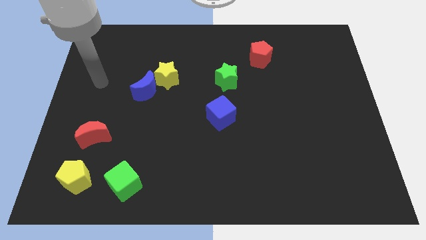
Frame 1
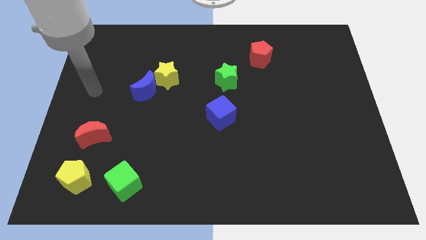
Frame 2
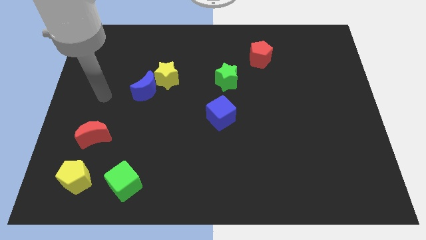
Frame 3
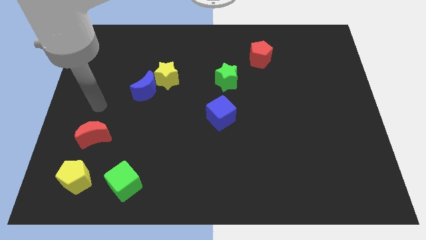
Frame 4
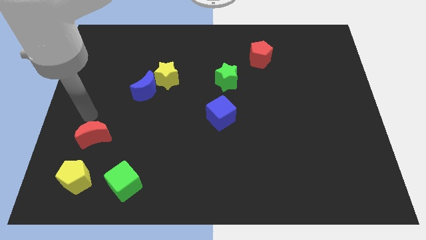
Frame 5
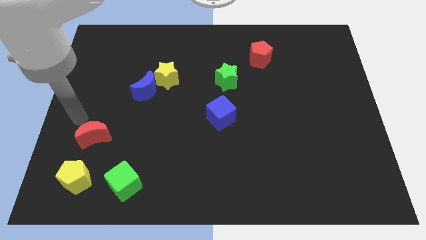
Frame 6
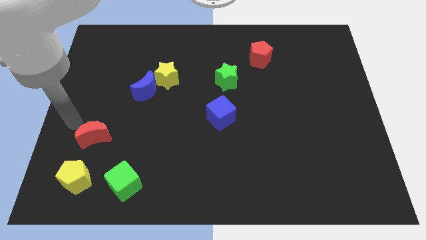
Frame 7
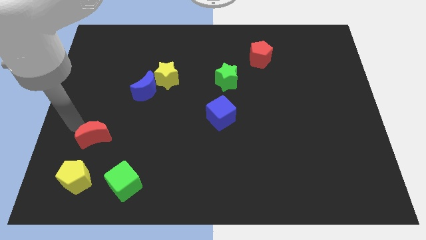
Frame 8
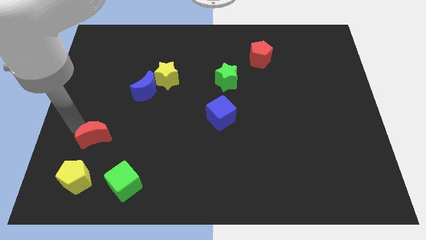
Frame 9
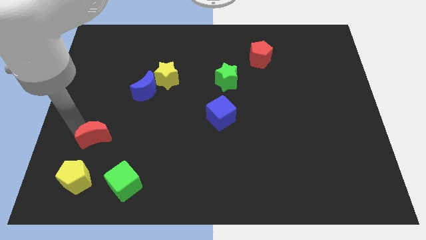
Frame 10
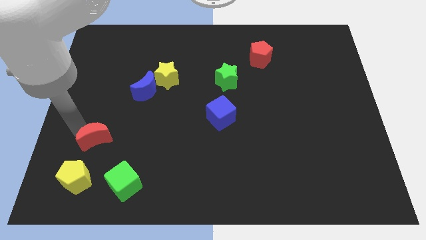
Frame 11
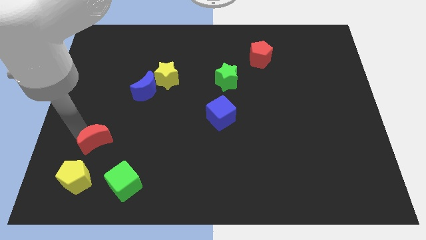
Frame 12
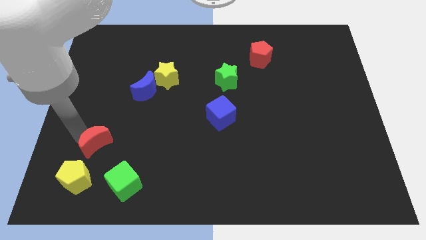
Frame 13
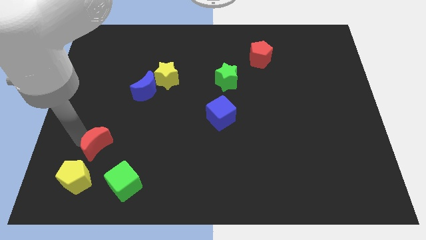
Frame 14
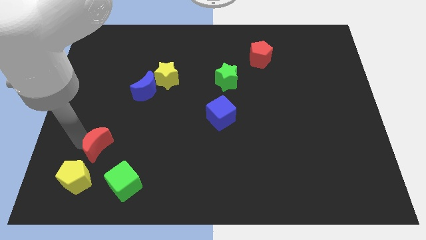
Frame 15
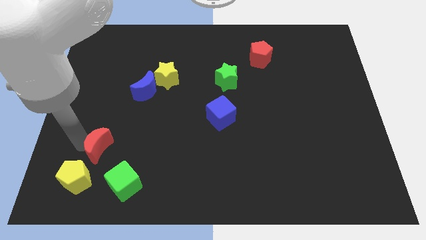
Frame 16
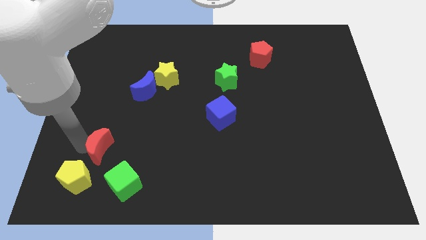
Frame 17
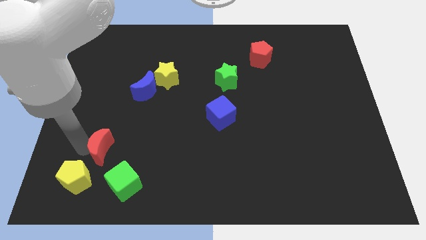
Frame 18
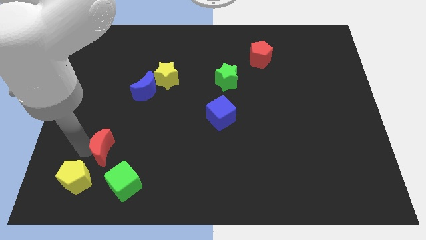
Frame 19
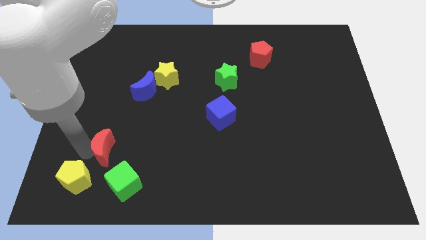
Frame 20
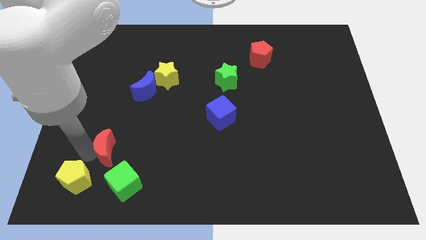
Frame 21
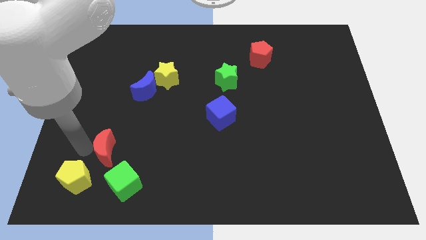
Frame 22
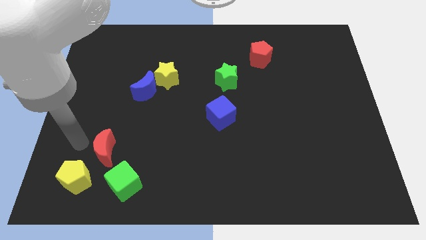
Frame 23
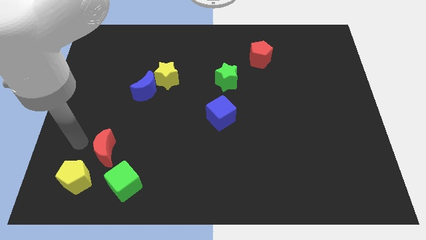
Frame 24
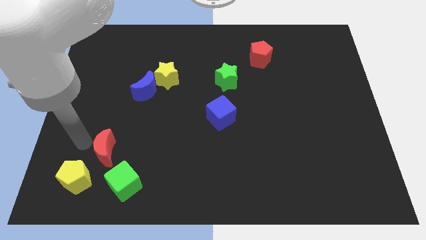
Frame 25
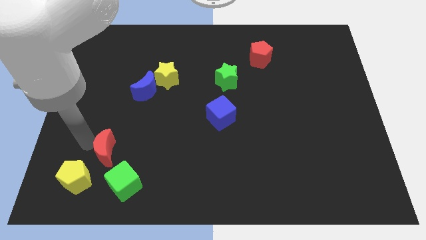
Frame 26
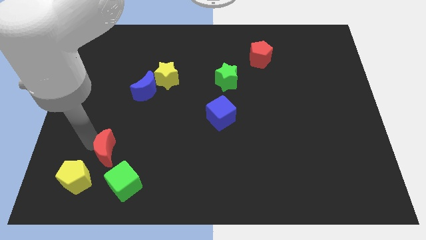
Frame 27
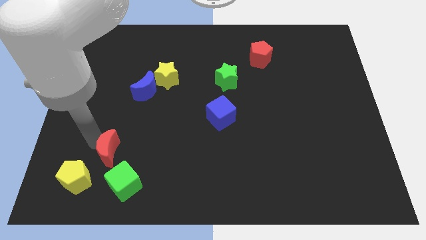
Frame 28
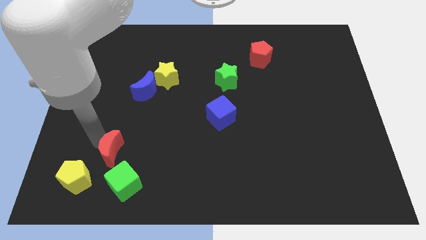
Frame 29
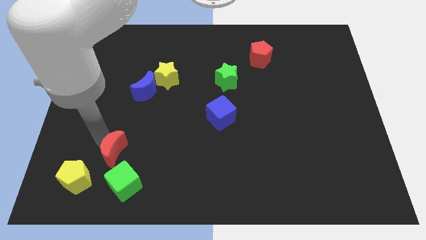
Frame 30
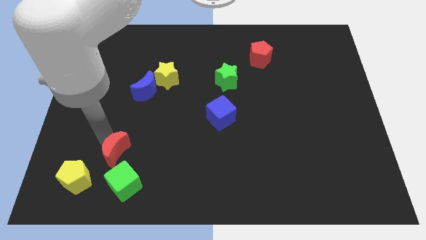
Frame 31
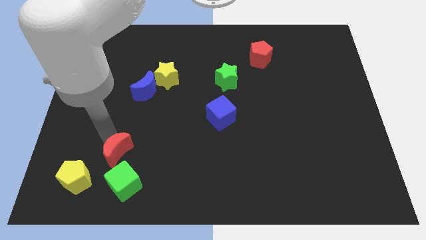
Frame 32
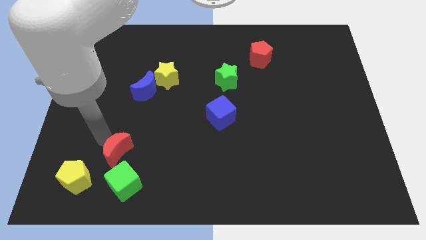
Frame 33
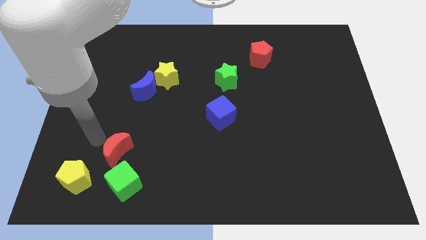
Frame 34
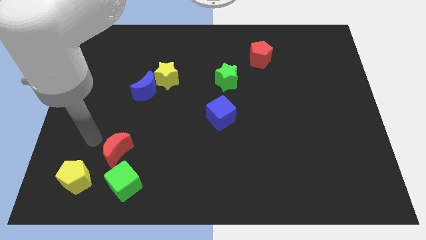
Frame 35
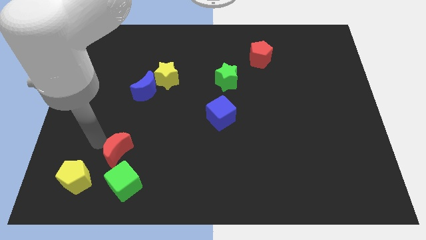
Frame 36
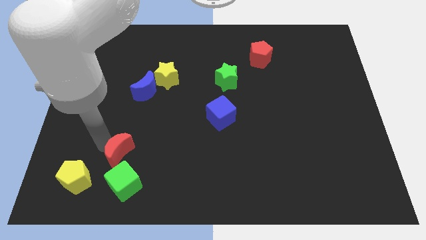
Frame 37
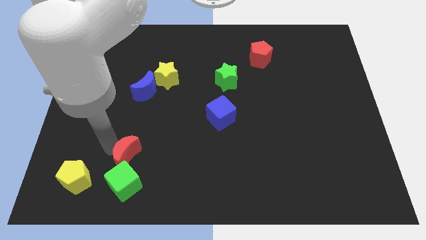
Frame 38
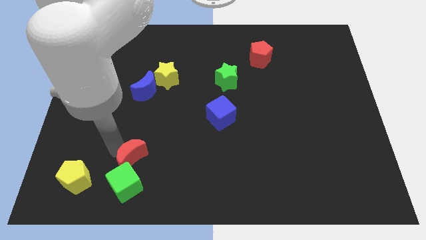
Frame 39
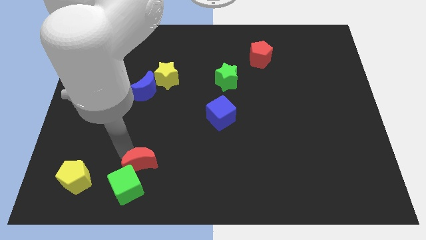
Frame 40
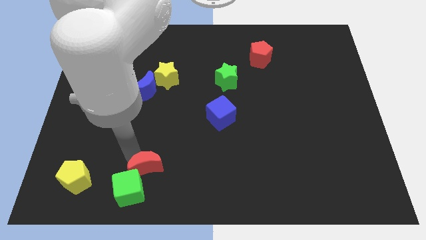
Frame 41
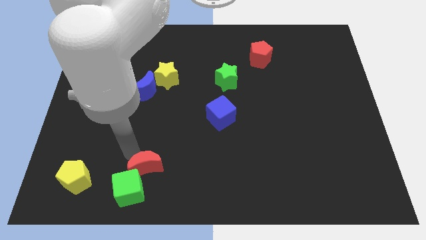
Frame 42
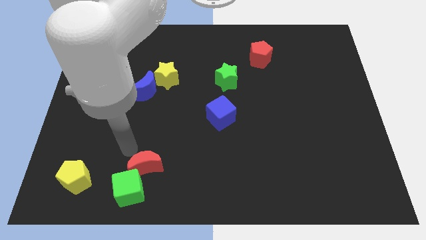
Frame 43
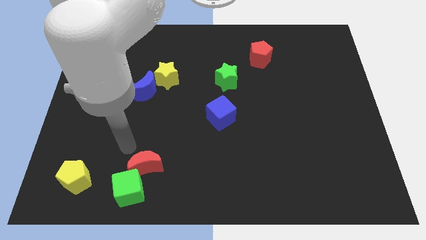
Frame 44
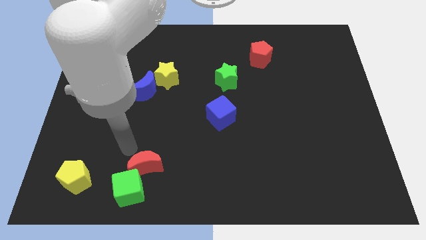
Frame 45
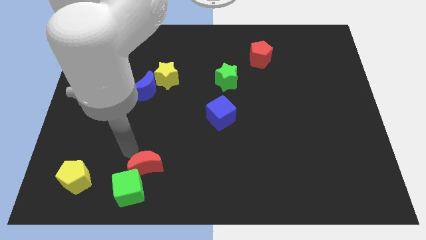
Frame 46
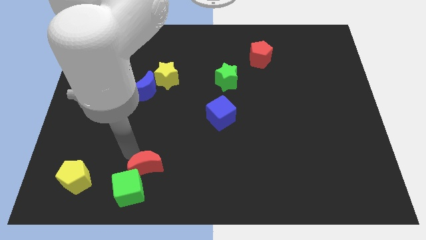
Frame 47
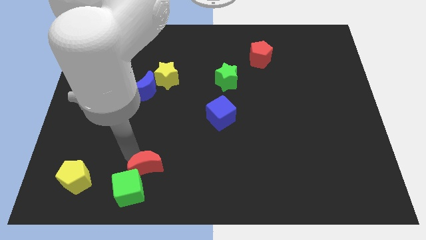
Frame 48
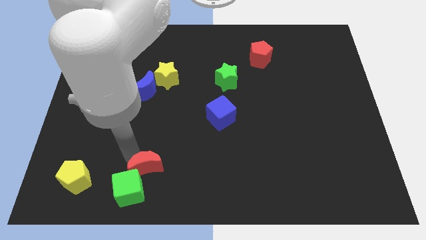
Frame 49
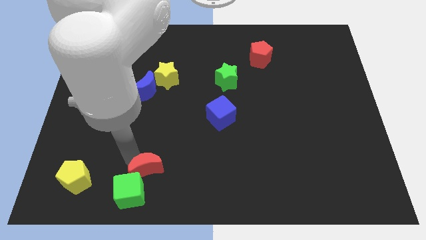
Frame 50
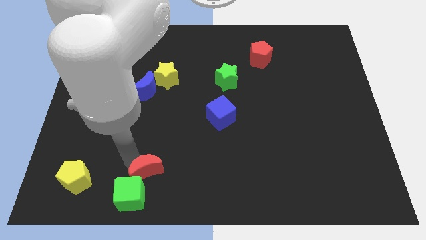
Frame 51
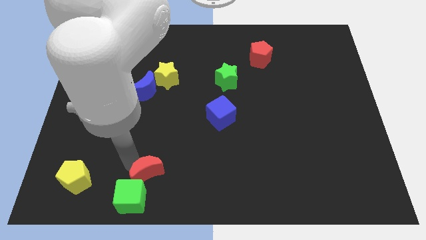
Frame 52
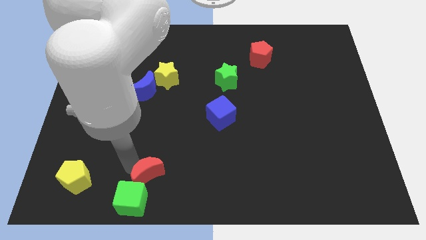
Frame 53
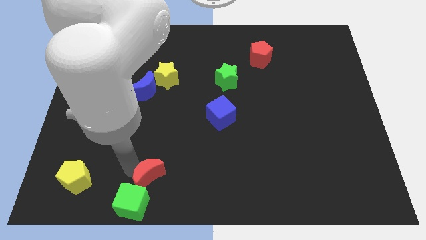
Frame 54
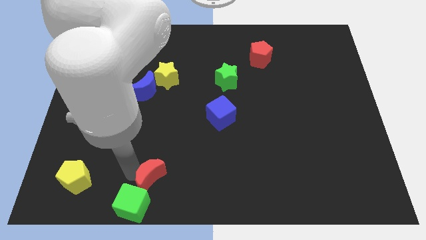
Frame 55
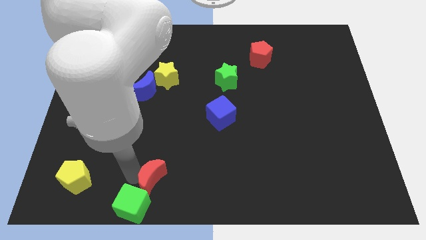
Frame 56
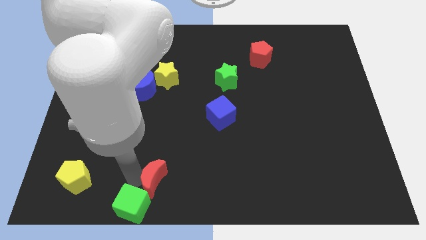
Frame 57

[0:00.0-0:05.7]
put the red moon to the bottom side

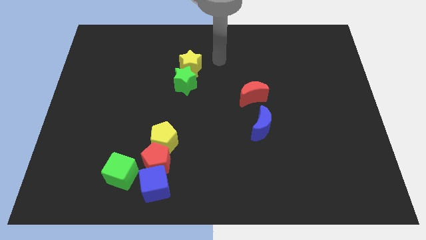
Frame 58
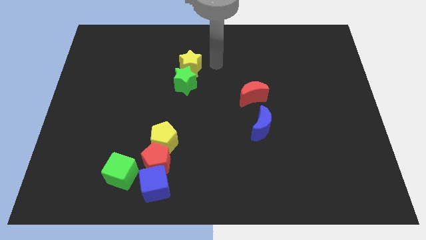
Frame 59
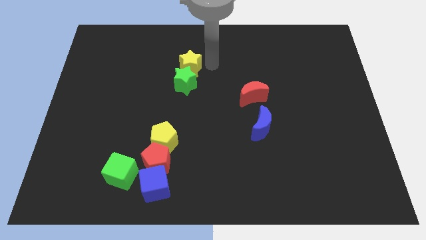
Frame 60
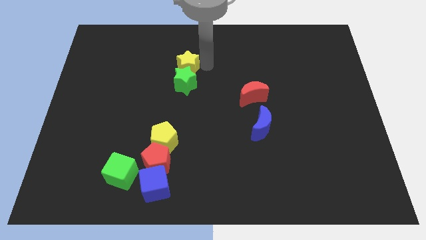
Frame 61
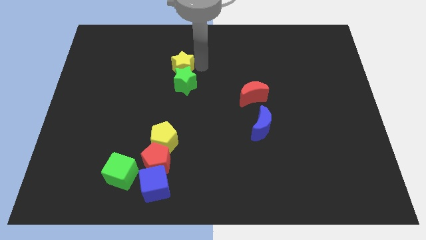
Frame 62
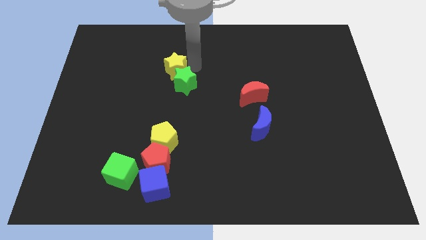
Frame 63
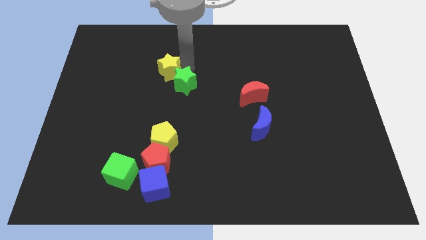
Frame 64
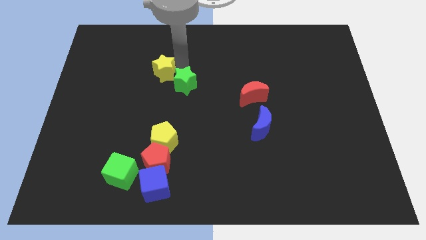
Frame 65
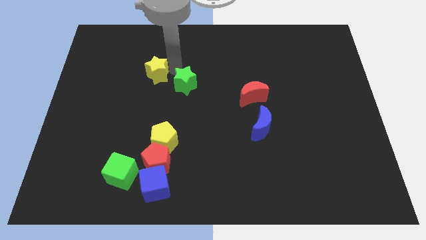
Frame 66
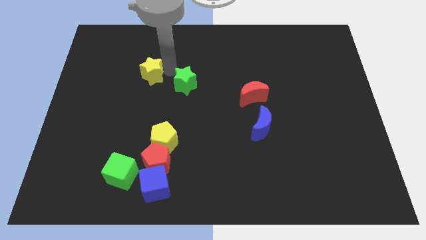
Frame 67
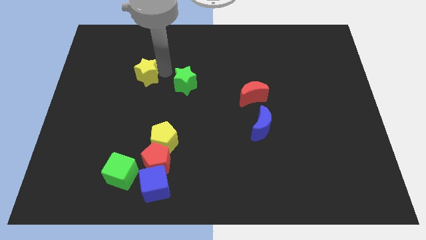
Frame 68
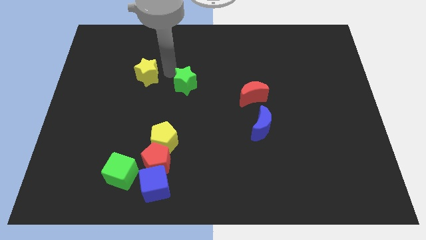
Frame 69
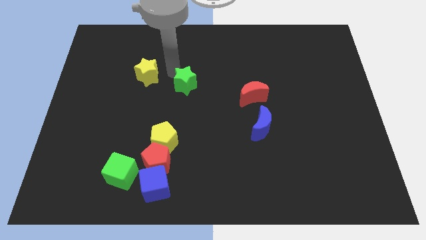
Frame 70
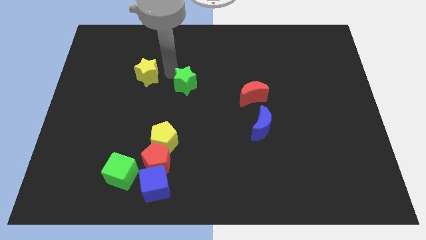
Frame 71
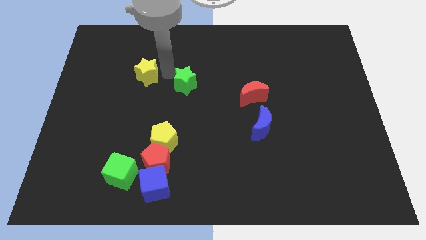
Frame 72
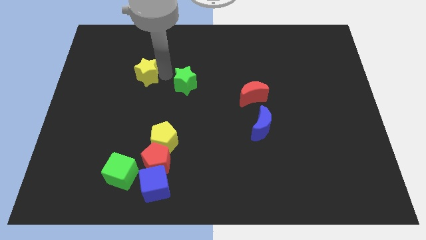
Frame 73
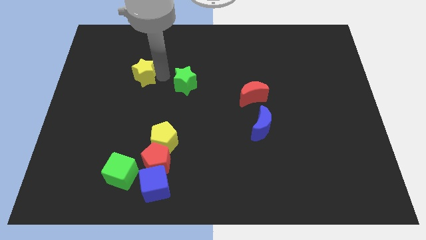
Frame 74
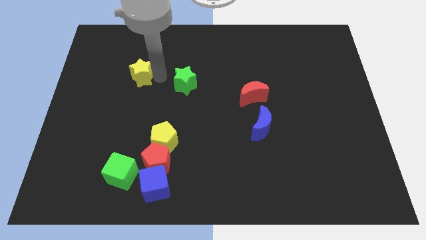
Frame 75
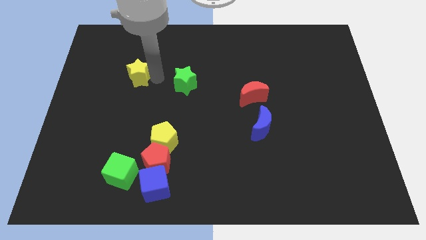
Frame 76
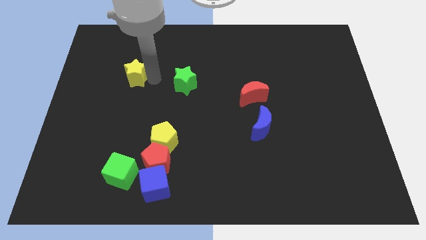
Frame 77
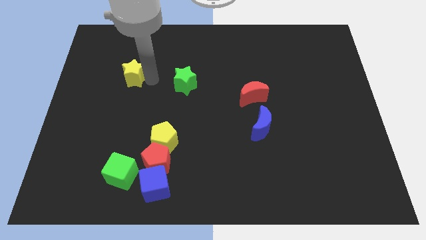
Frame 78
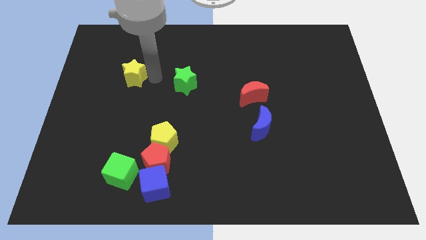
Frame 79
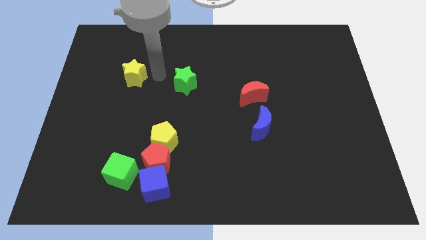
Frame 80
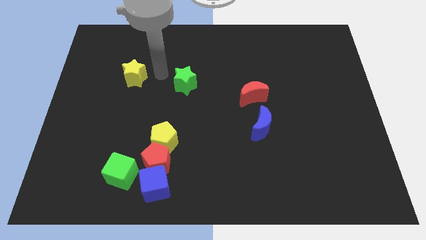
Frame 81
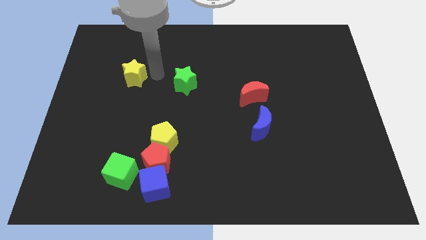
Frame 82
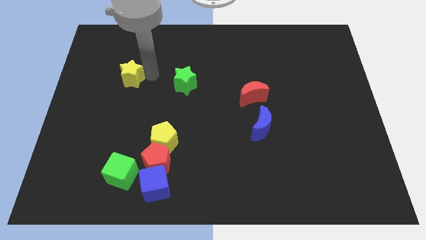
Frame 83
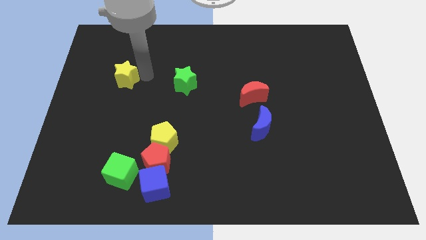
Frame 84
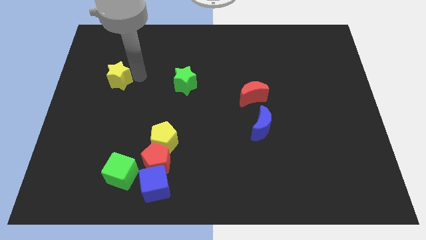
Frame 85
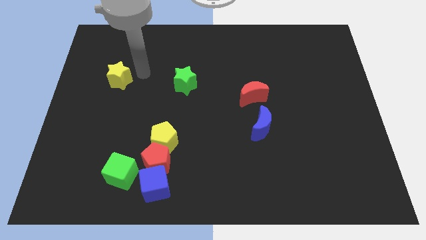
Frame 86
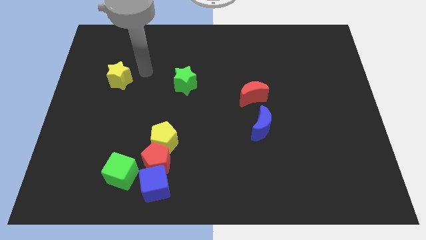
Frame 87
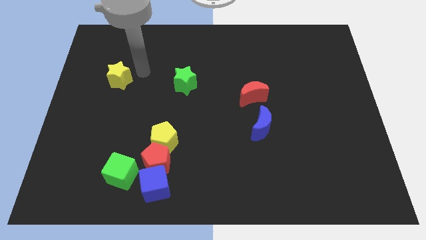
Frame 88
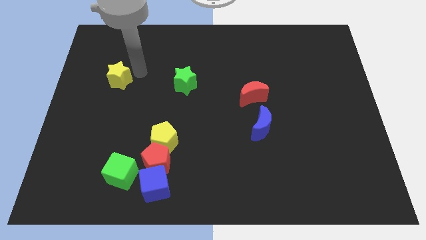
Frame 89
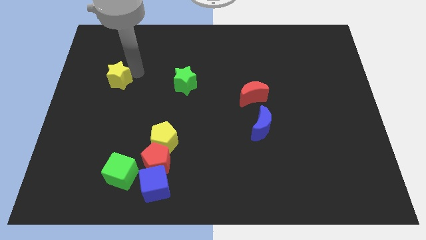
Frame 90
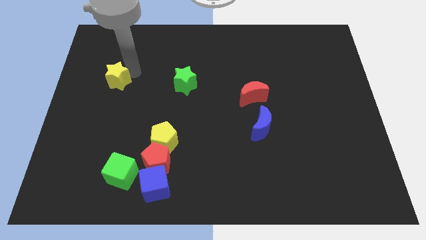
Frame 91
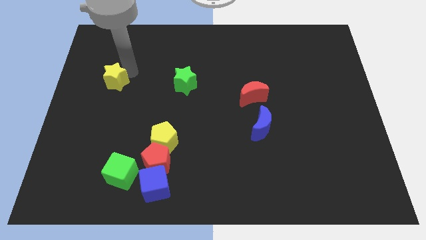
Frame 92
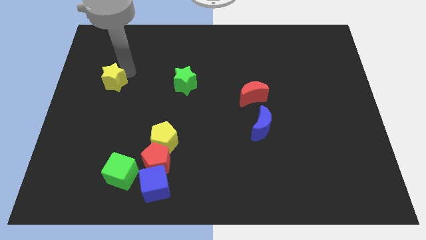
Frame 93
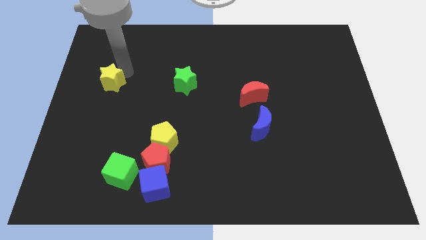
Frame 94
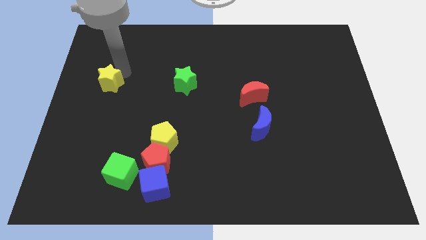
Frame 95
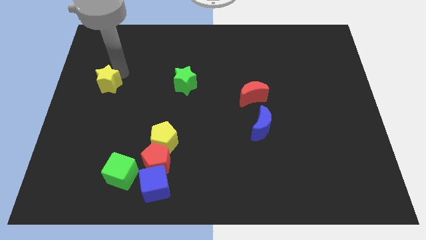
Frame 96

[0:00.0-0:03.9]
slide the yellow star to the left side of the board
